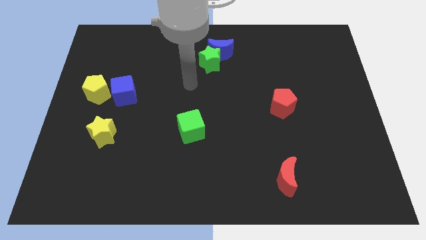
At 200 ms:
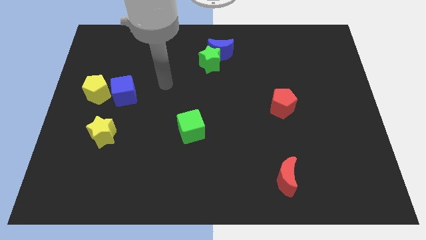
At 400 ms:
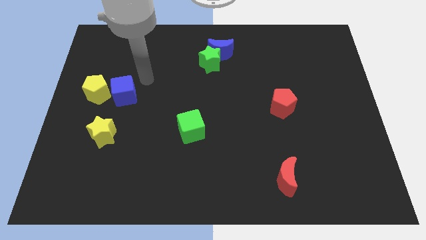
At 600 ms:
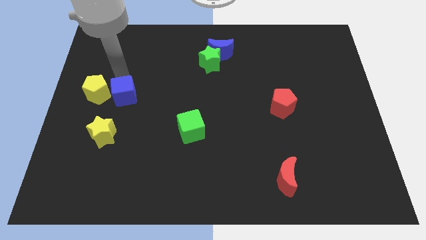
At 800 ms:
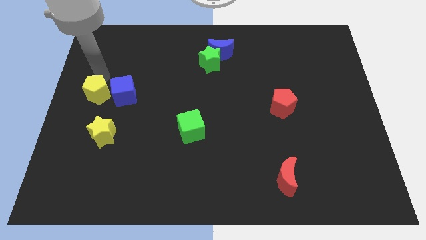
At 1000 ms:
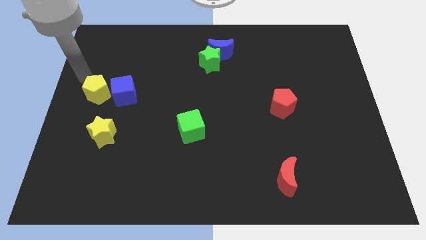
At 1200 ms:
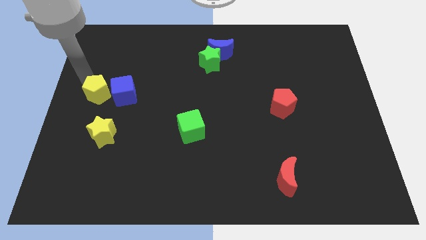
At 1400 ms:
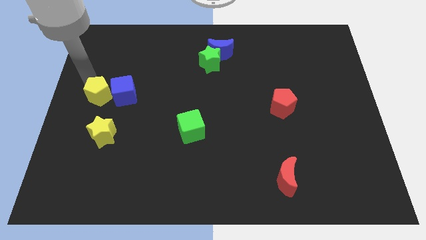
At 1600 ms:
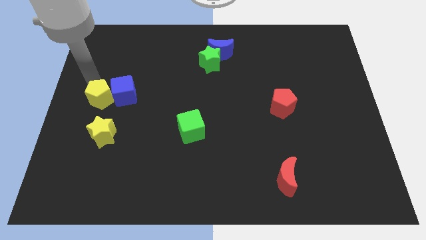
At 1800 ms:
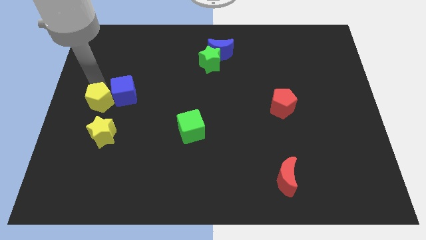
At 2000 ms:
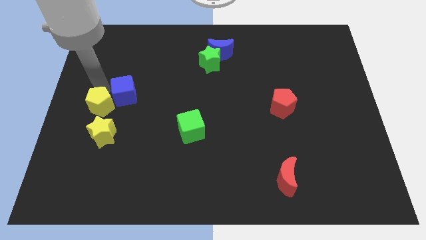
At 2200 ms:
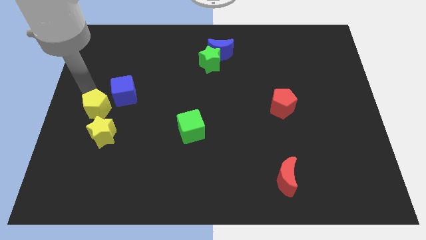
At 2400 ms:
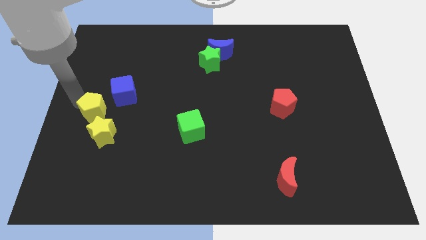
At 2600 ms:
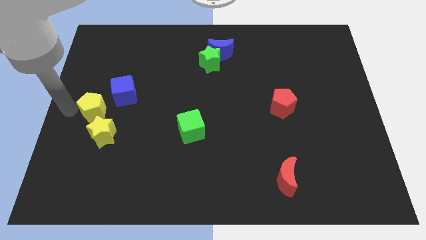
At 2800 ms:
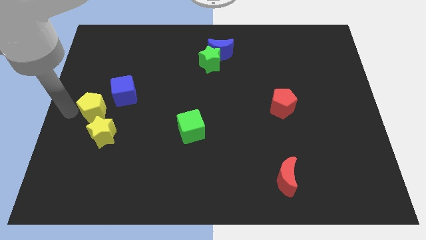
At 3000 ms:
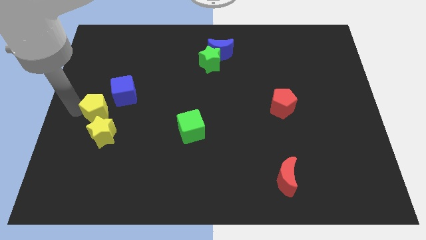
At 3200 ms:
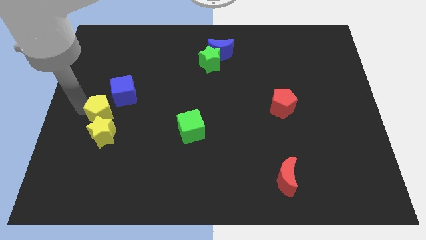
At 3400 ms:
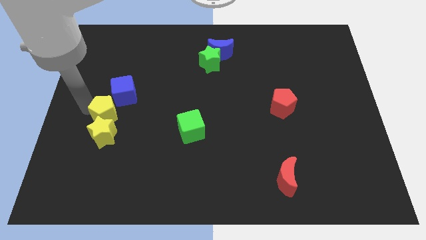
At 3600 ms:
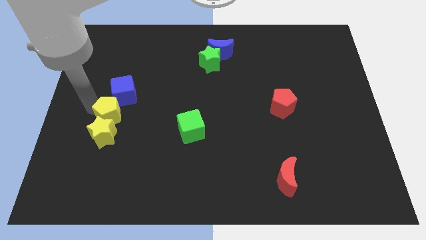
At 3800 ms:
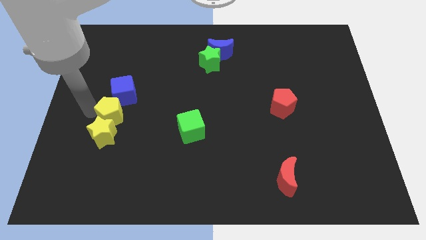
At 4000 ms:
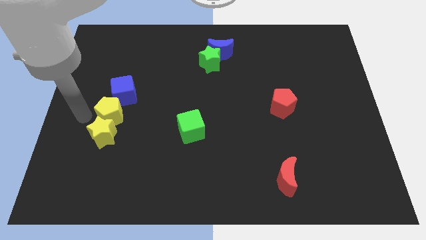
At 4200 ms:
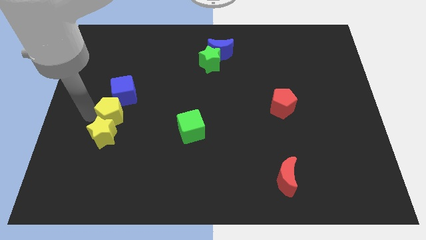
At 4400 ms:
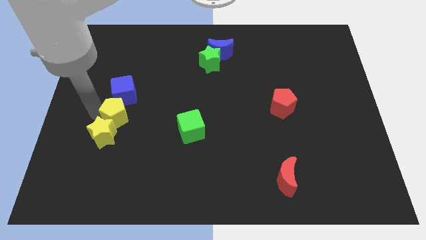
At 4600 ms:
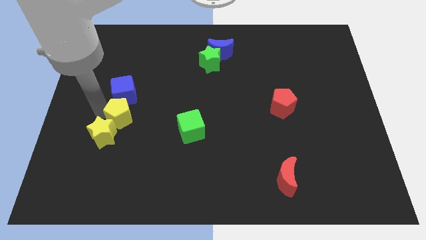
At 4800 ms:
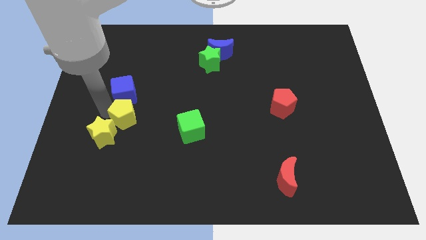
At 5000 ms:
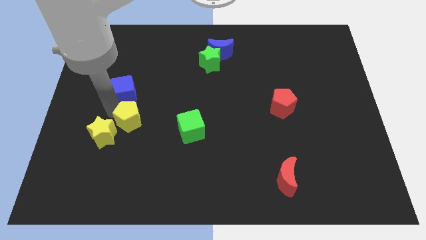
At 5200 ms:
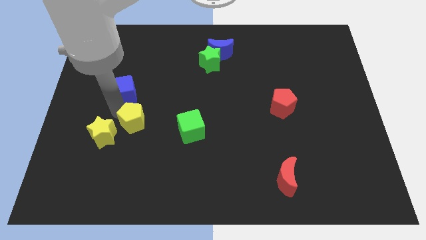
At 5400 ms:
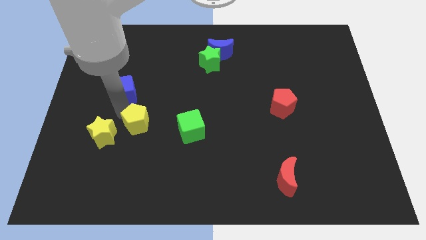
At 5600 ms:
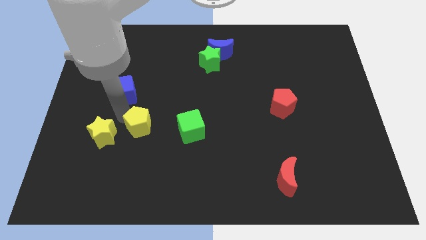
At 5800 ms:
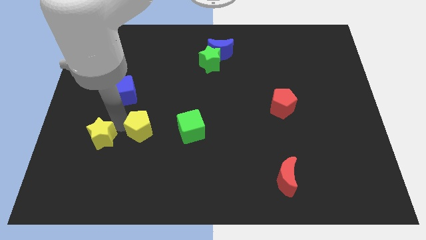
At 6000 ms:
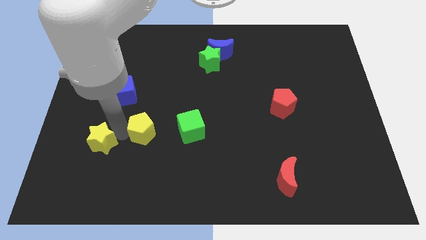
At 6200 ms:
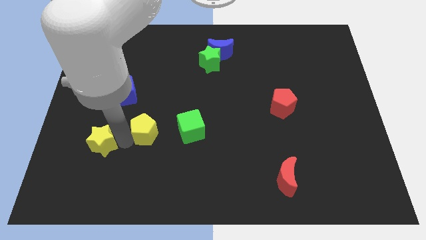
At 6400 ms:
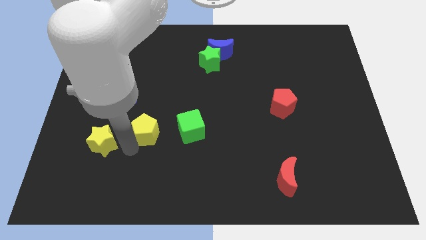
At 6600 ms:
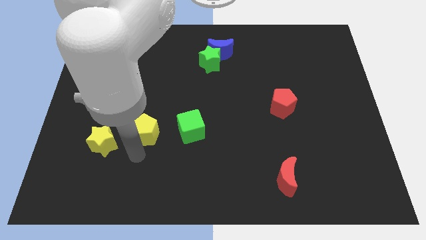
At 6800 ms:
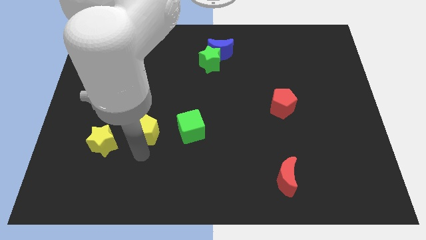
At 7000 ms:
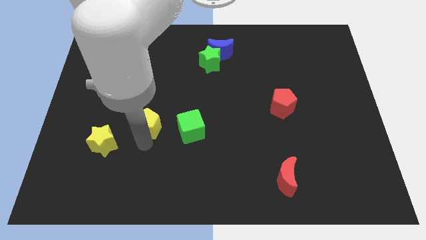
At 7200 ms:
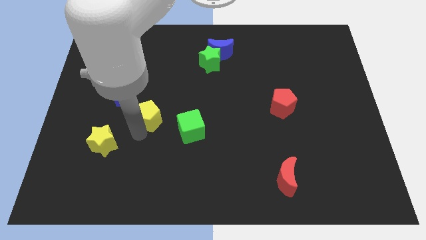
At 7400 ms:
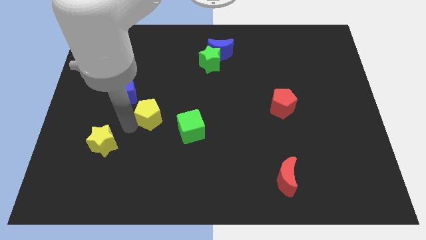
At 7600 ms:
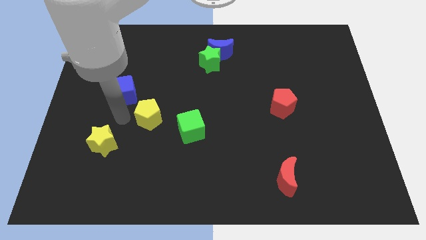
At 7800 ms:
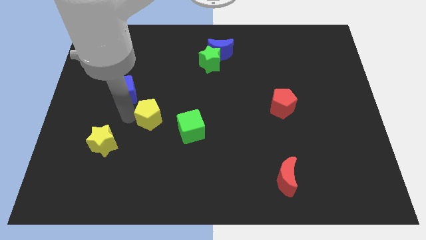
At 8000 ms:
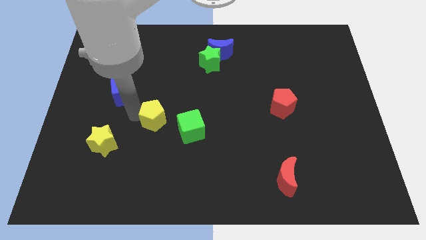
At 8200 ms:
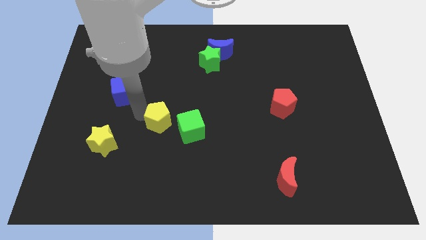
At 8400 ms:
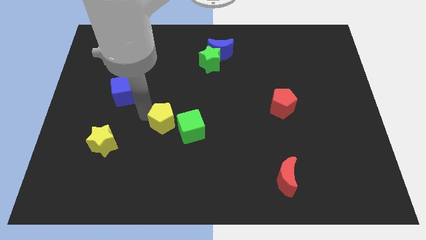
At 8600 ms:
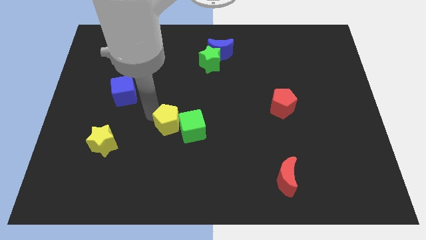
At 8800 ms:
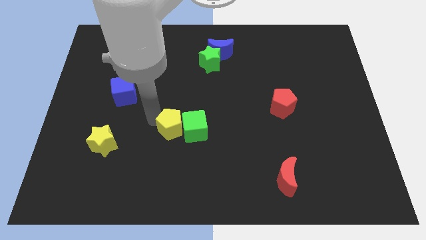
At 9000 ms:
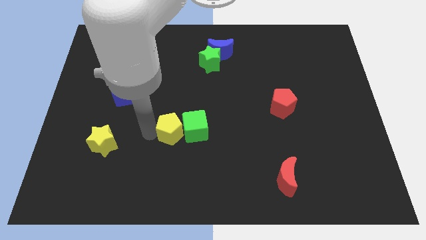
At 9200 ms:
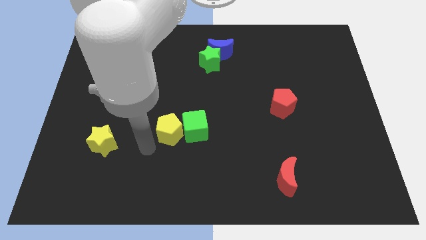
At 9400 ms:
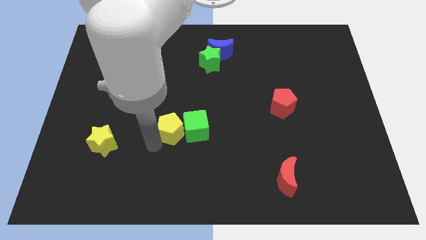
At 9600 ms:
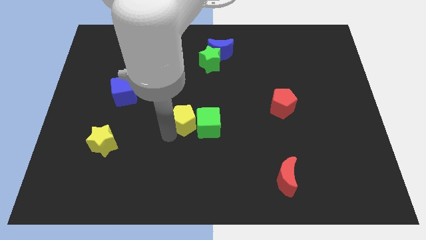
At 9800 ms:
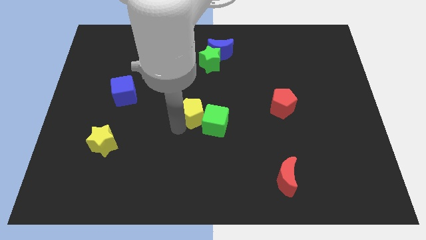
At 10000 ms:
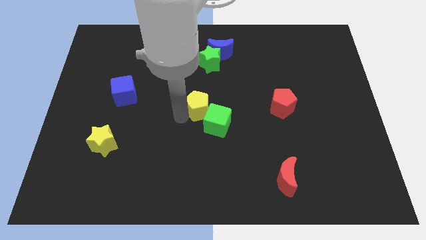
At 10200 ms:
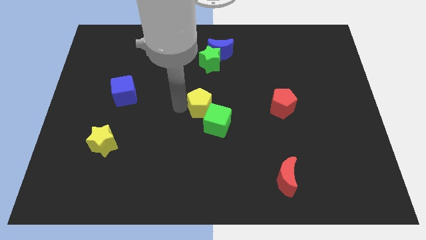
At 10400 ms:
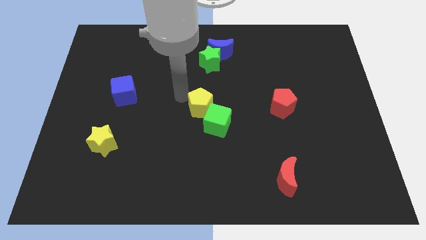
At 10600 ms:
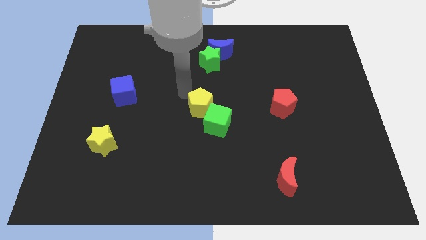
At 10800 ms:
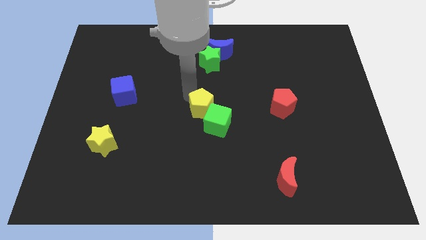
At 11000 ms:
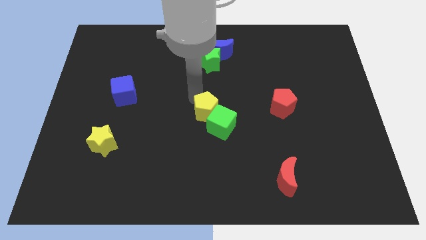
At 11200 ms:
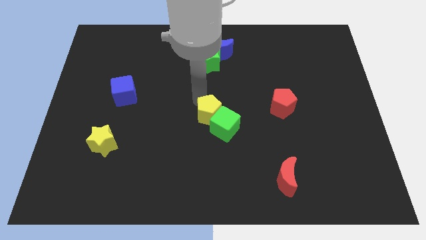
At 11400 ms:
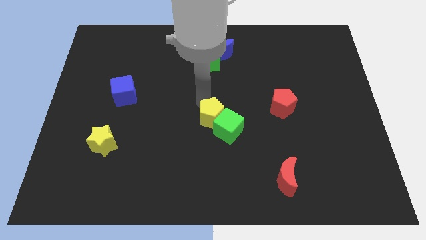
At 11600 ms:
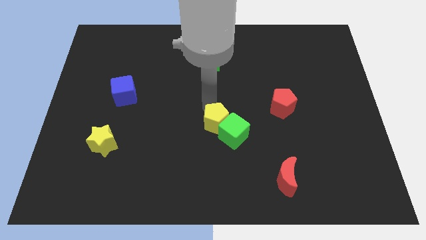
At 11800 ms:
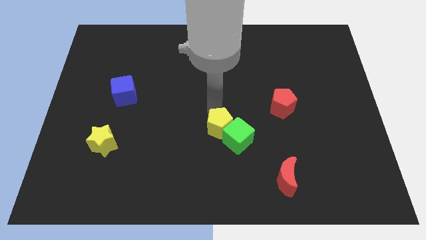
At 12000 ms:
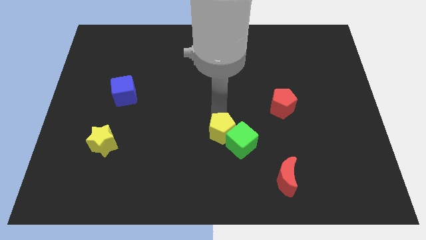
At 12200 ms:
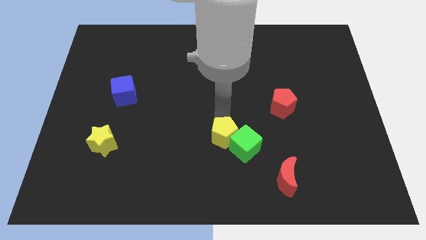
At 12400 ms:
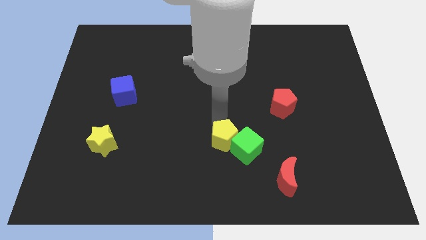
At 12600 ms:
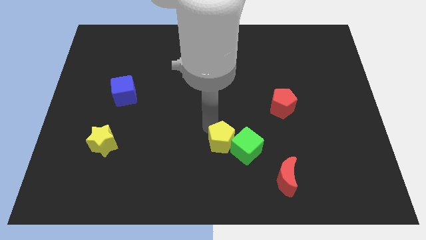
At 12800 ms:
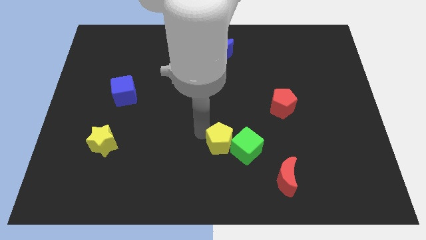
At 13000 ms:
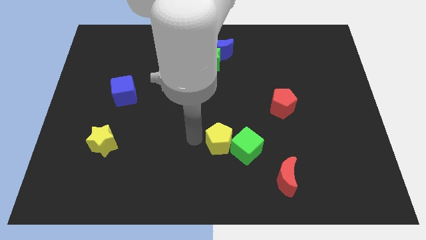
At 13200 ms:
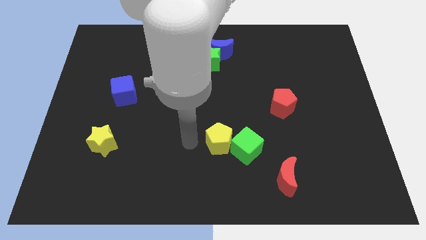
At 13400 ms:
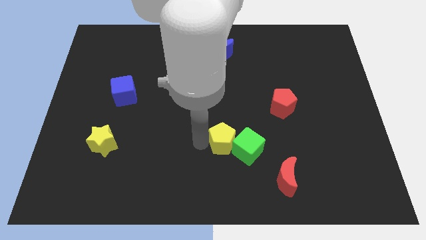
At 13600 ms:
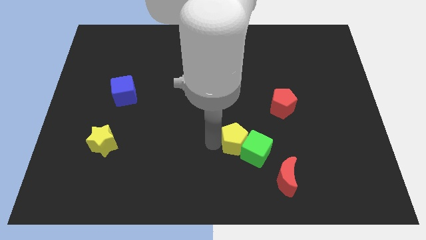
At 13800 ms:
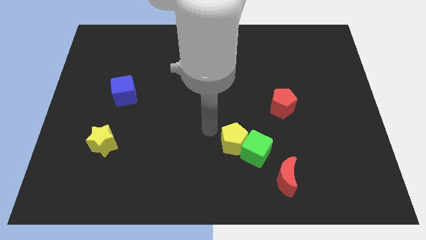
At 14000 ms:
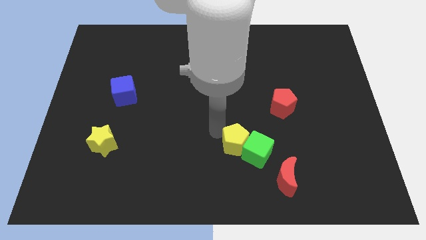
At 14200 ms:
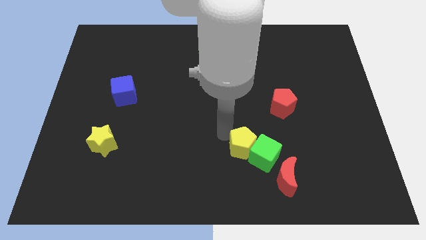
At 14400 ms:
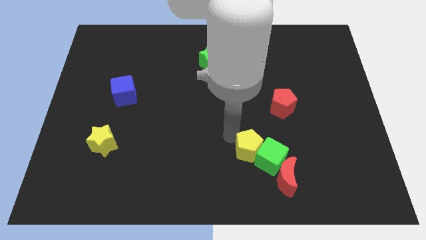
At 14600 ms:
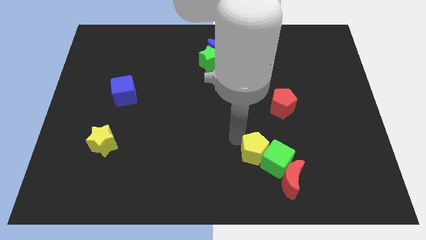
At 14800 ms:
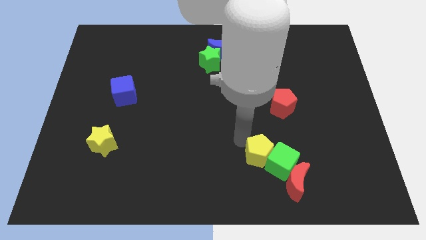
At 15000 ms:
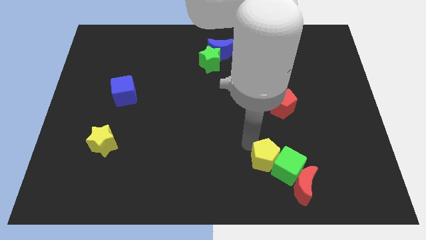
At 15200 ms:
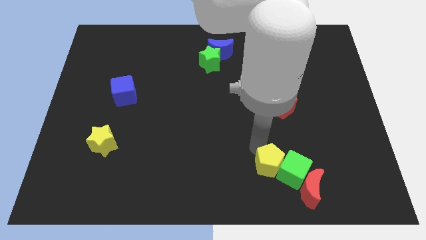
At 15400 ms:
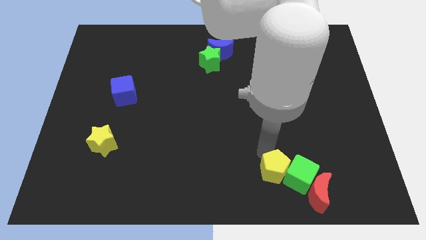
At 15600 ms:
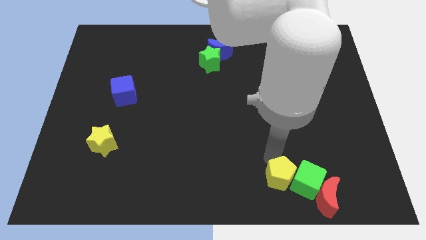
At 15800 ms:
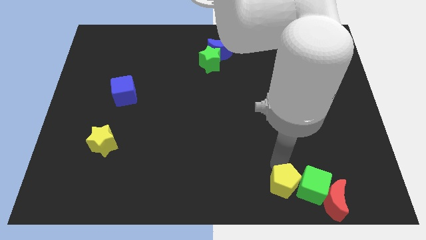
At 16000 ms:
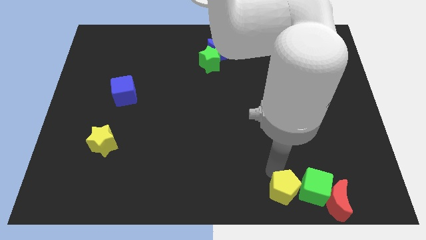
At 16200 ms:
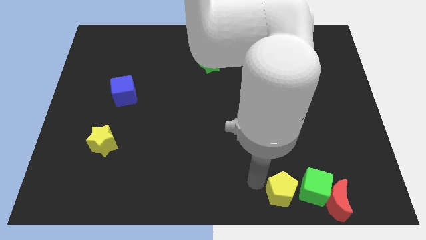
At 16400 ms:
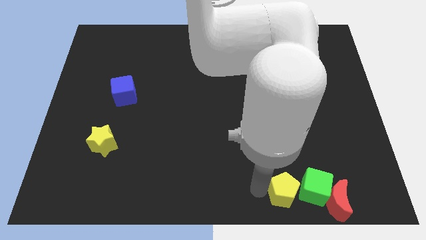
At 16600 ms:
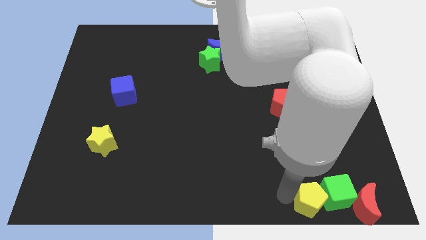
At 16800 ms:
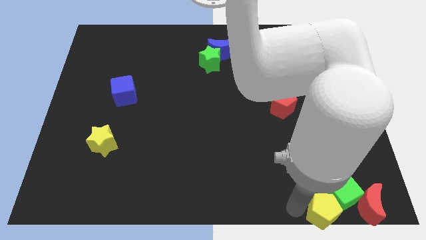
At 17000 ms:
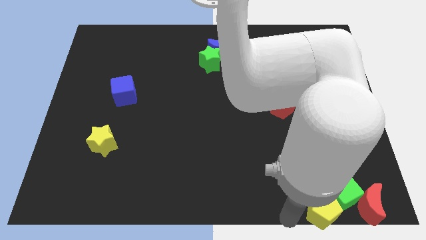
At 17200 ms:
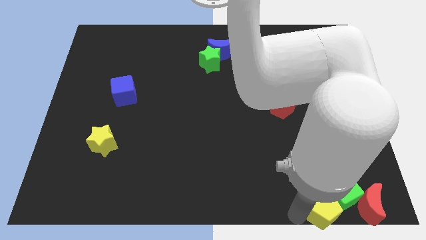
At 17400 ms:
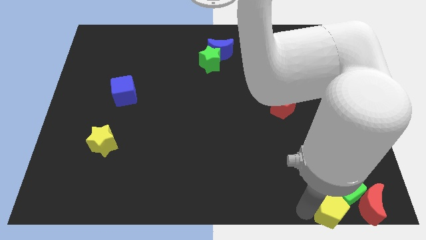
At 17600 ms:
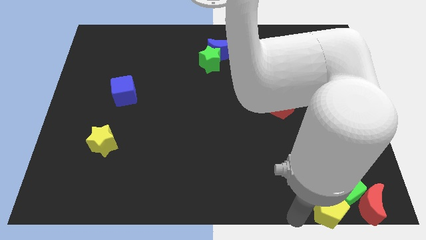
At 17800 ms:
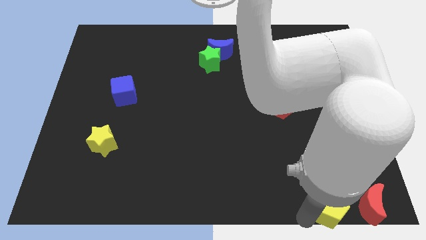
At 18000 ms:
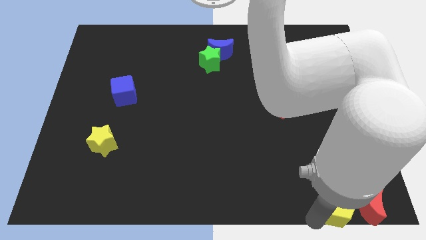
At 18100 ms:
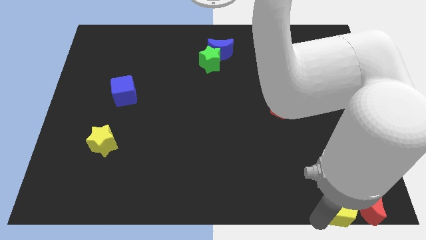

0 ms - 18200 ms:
push the yellow pentagon close to the red moon
